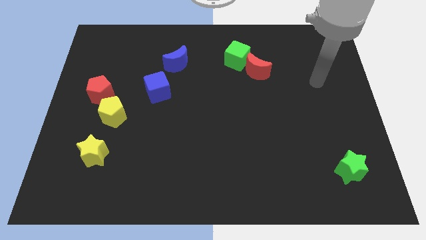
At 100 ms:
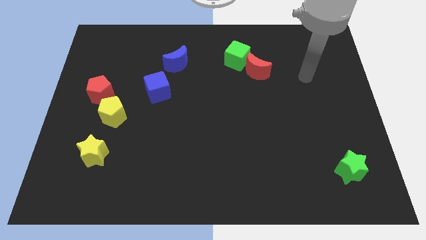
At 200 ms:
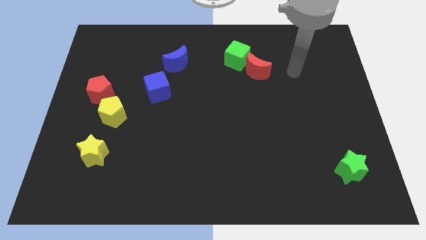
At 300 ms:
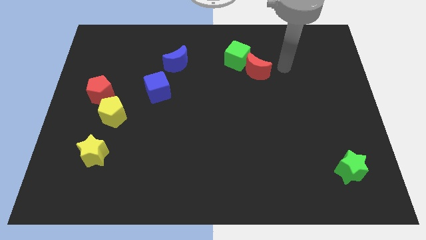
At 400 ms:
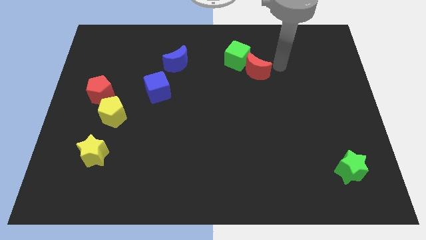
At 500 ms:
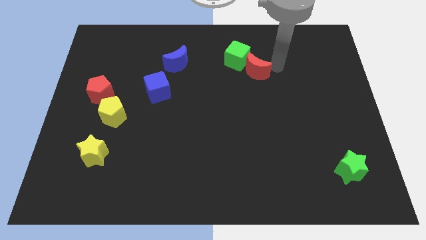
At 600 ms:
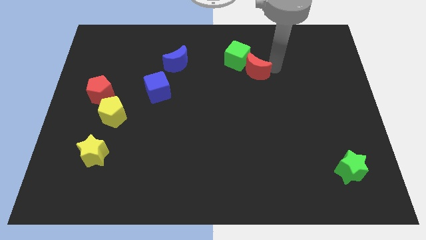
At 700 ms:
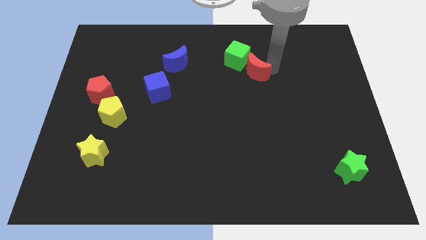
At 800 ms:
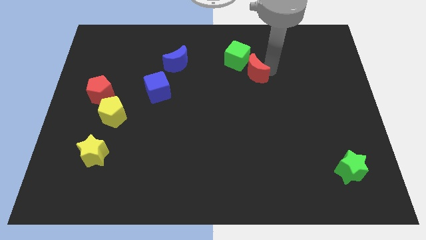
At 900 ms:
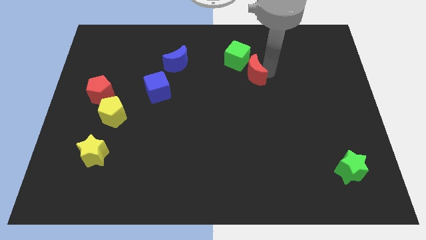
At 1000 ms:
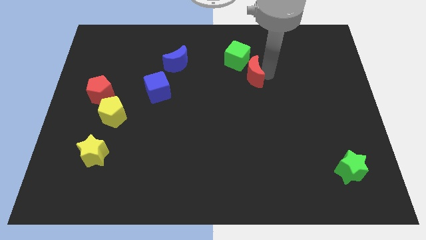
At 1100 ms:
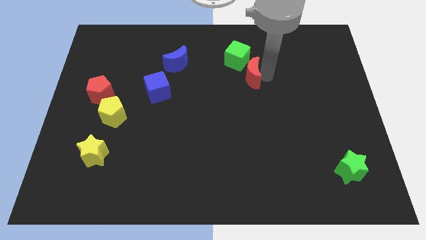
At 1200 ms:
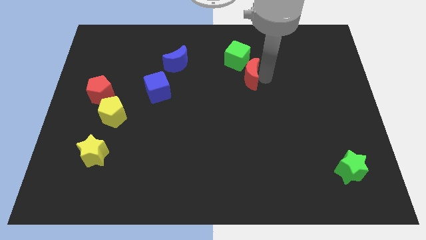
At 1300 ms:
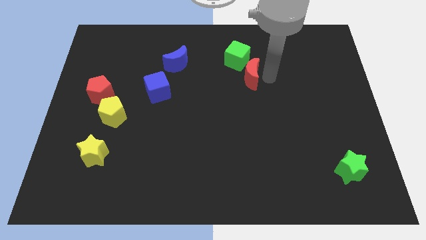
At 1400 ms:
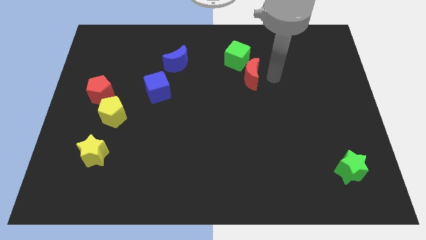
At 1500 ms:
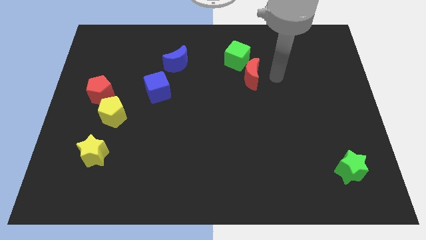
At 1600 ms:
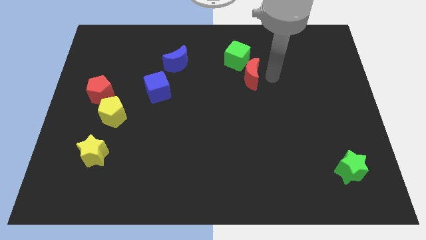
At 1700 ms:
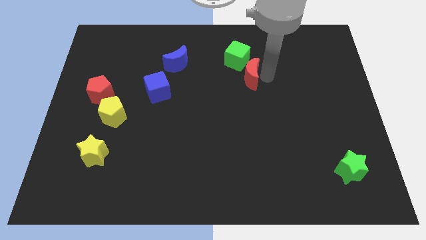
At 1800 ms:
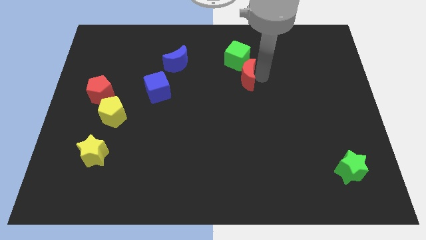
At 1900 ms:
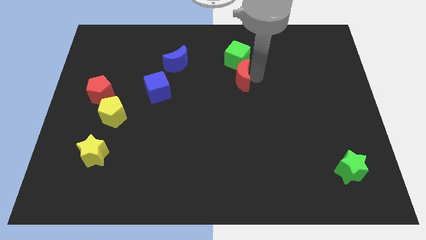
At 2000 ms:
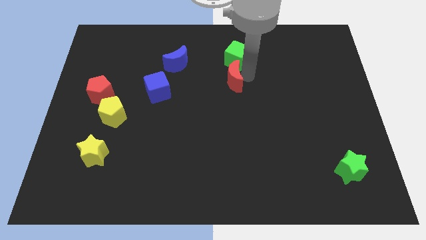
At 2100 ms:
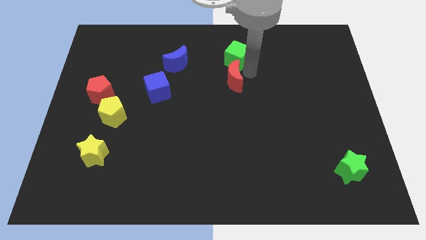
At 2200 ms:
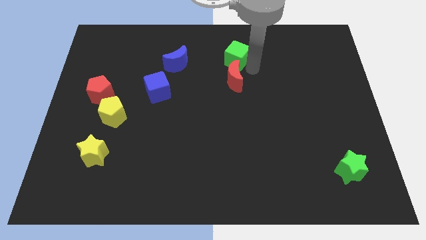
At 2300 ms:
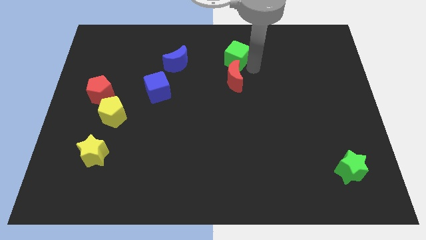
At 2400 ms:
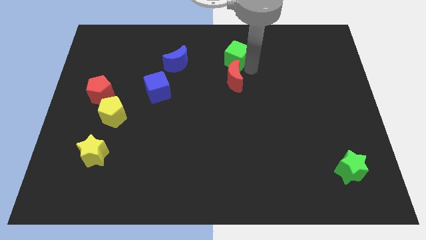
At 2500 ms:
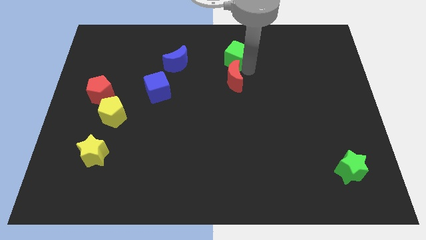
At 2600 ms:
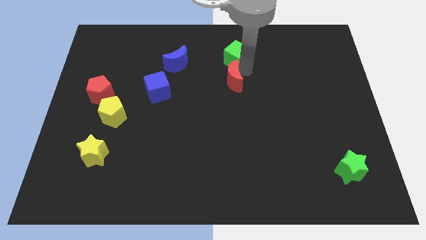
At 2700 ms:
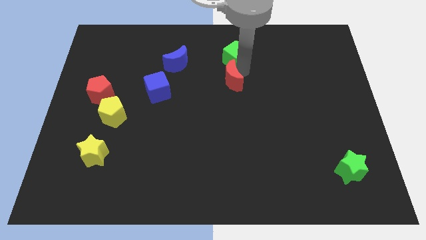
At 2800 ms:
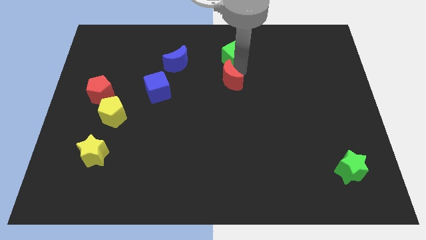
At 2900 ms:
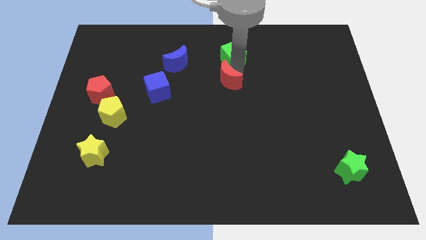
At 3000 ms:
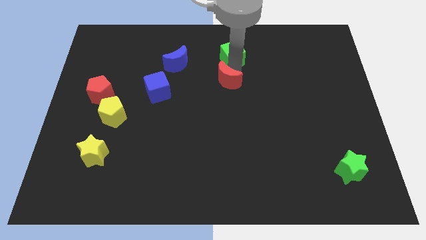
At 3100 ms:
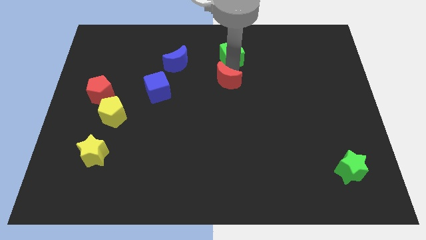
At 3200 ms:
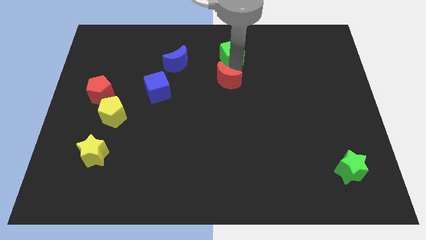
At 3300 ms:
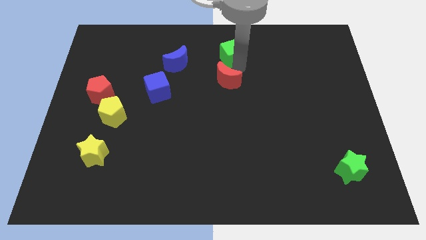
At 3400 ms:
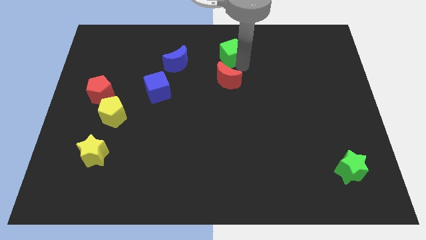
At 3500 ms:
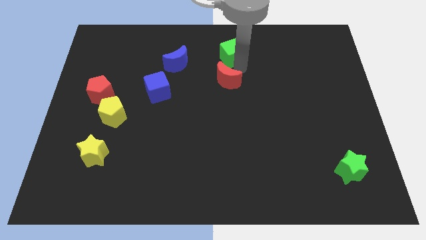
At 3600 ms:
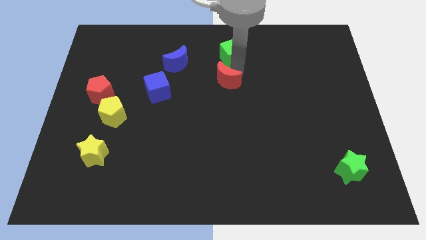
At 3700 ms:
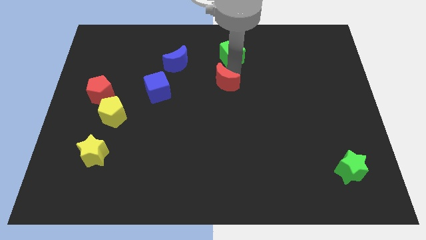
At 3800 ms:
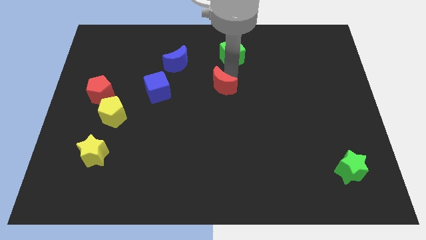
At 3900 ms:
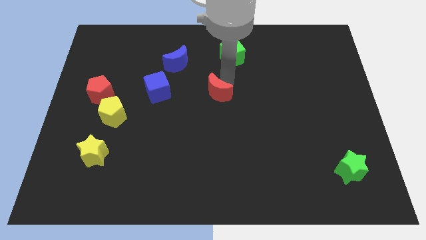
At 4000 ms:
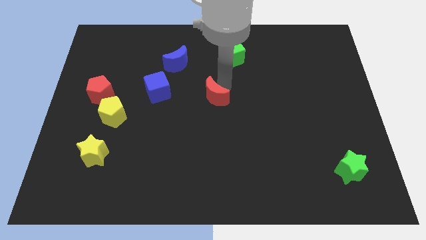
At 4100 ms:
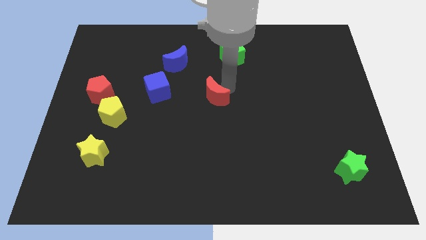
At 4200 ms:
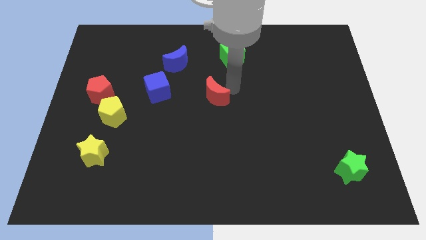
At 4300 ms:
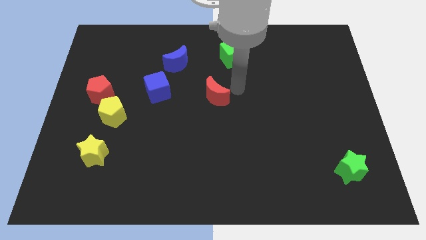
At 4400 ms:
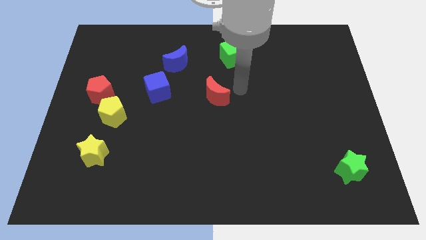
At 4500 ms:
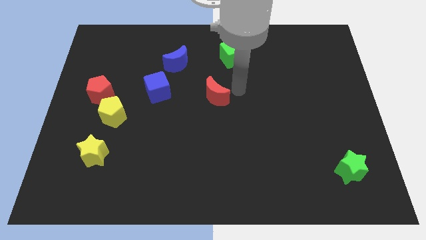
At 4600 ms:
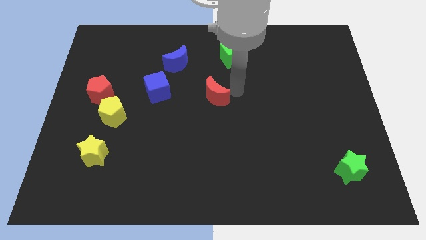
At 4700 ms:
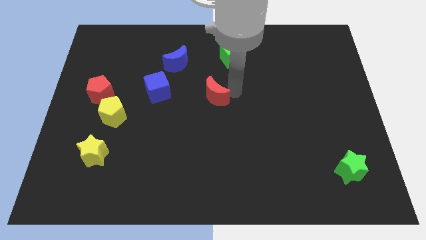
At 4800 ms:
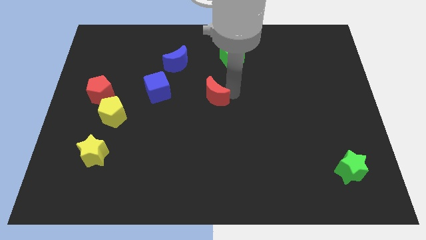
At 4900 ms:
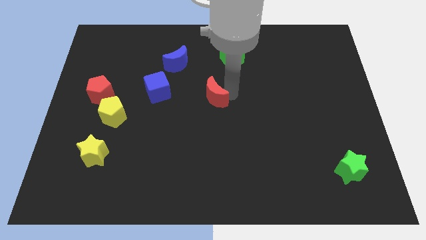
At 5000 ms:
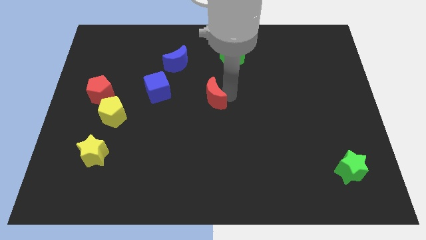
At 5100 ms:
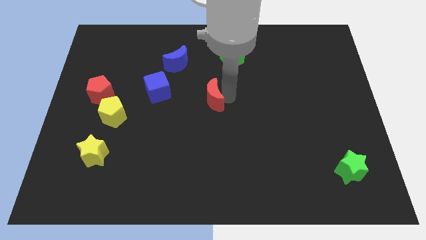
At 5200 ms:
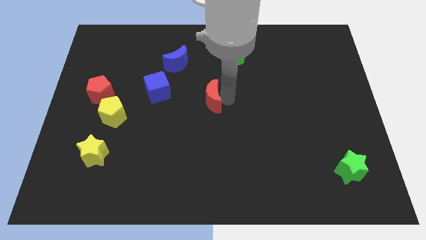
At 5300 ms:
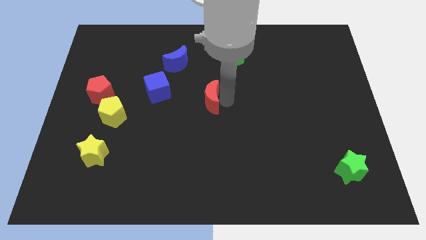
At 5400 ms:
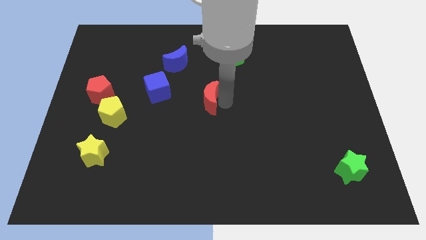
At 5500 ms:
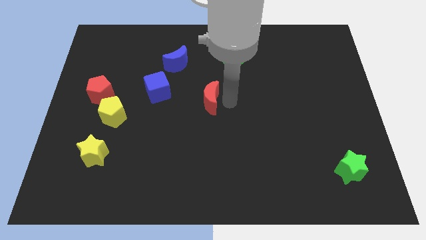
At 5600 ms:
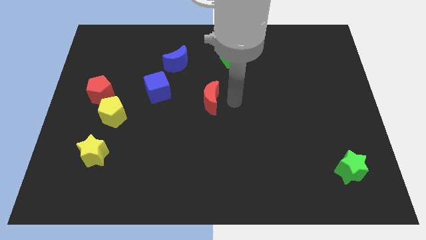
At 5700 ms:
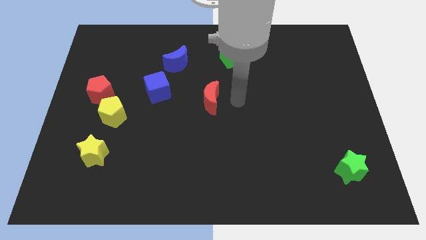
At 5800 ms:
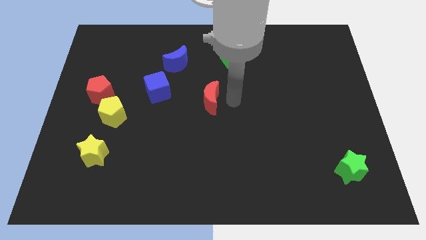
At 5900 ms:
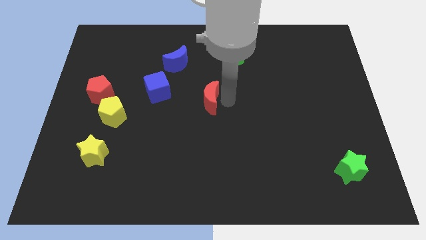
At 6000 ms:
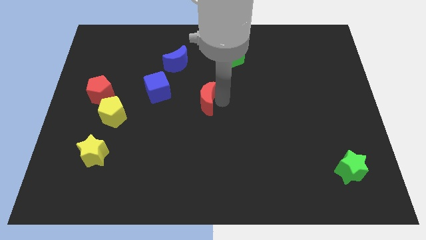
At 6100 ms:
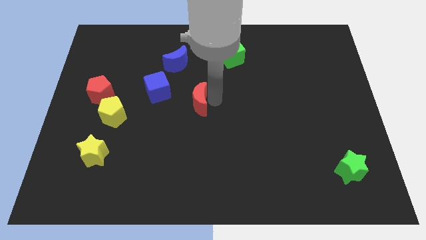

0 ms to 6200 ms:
push the red moon to the bottom right side of the blue cube

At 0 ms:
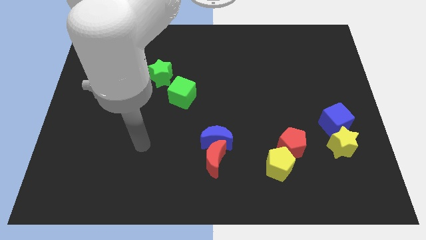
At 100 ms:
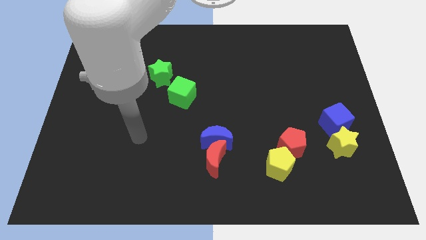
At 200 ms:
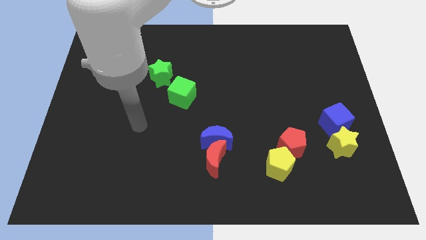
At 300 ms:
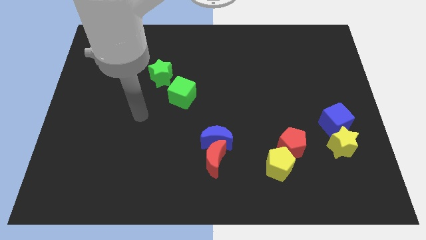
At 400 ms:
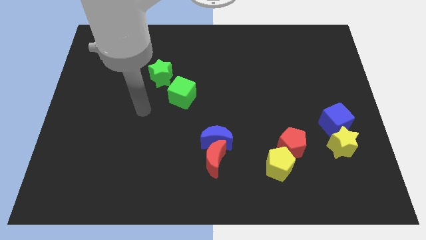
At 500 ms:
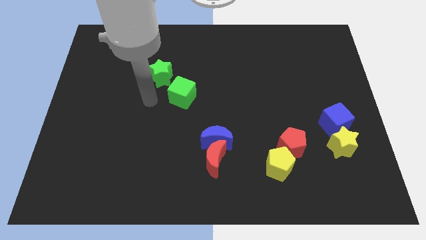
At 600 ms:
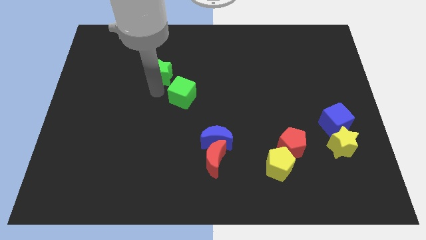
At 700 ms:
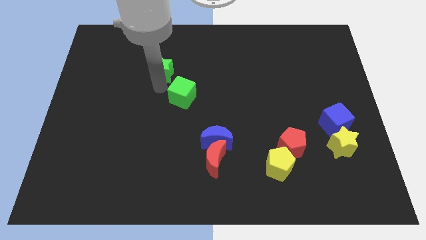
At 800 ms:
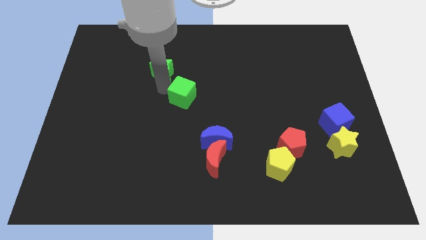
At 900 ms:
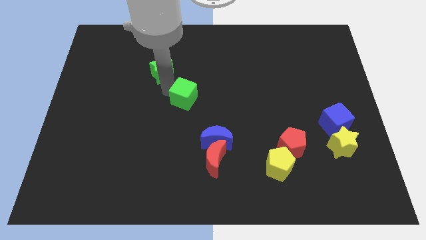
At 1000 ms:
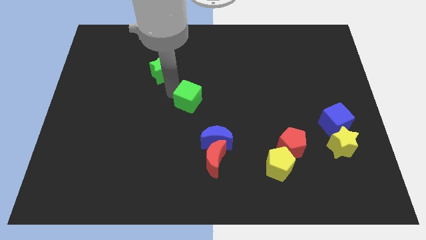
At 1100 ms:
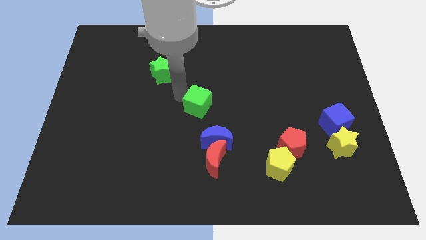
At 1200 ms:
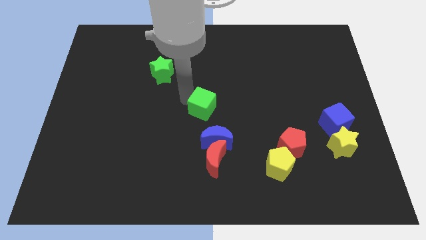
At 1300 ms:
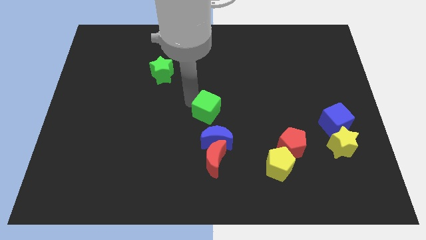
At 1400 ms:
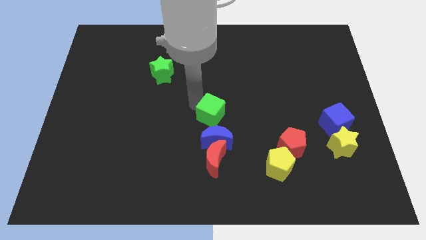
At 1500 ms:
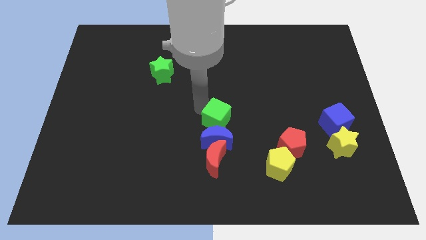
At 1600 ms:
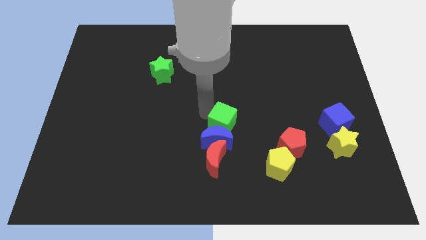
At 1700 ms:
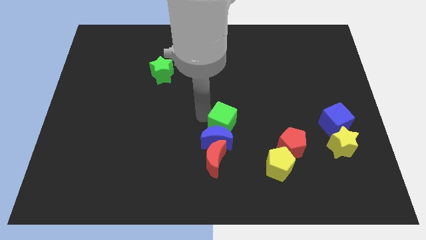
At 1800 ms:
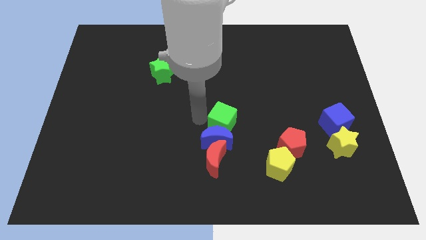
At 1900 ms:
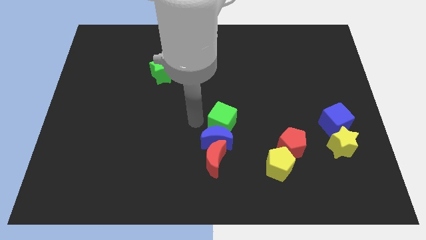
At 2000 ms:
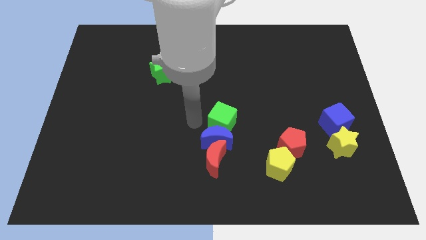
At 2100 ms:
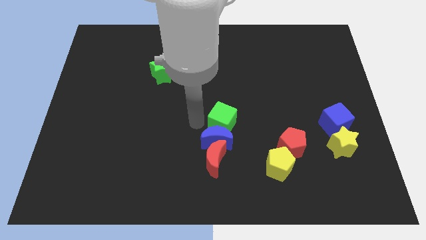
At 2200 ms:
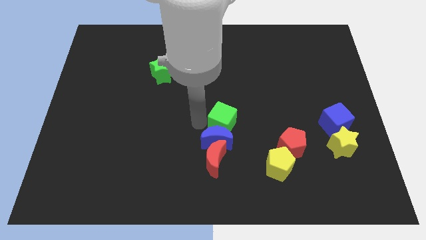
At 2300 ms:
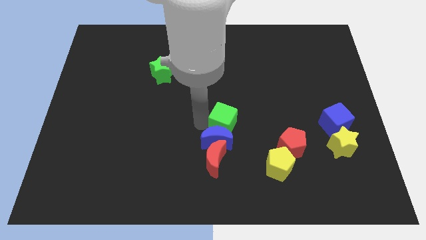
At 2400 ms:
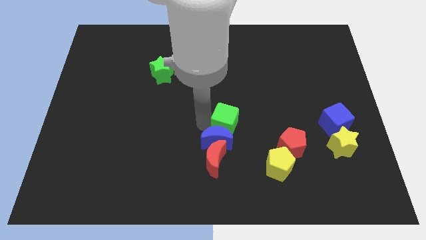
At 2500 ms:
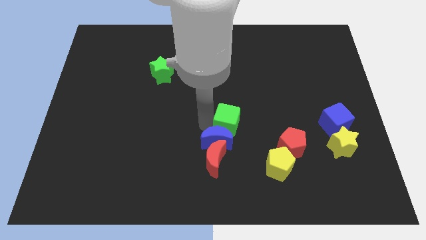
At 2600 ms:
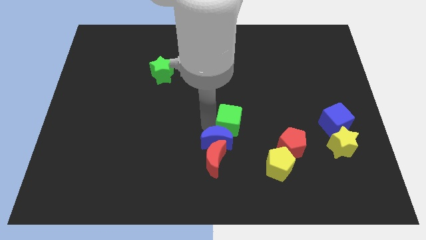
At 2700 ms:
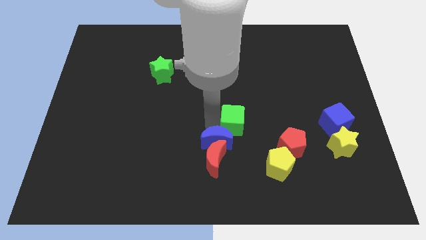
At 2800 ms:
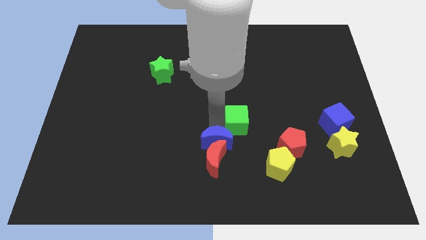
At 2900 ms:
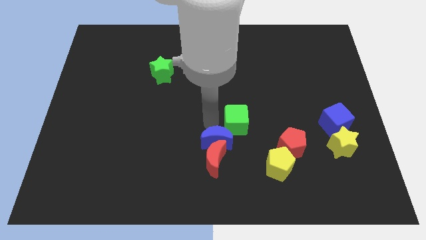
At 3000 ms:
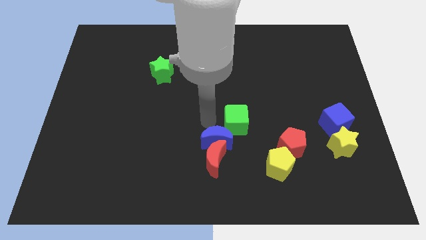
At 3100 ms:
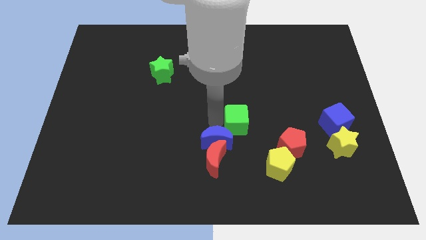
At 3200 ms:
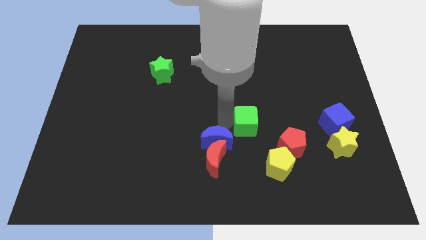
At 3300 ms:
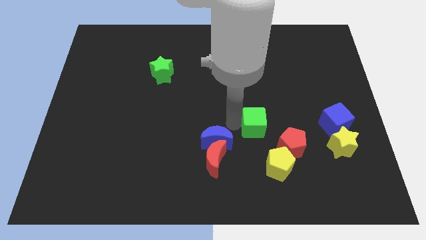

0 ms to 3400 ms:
push the green cube to the top of the yellow pentagon
